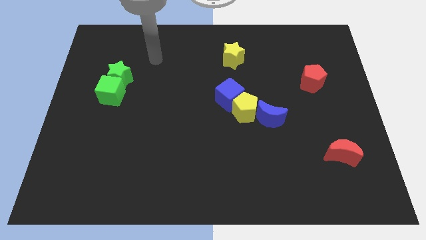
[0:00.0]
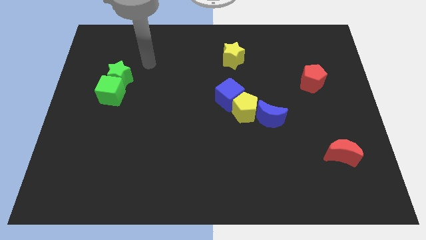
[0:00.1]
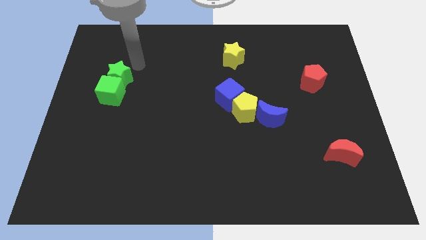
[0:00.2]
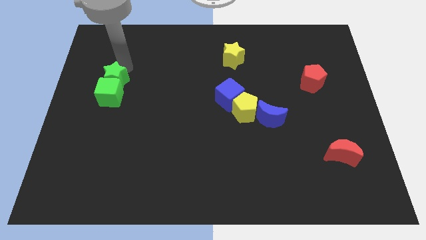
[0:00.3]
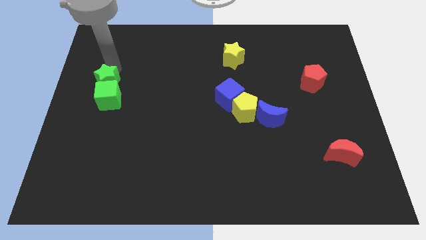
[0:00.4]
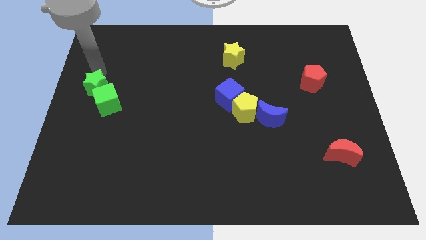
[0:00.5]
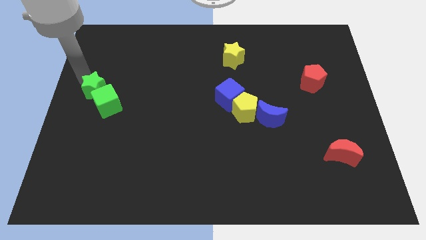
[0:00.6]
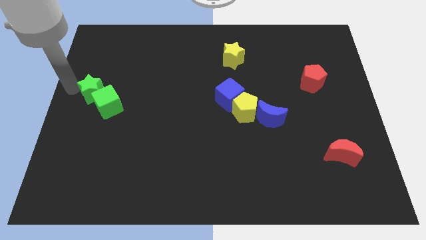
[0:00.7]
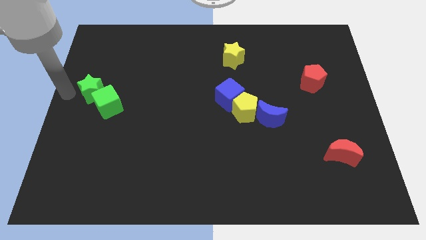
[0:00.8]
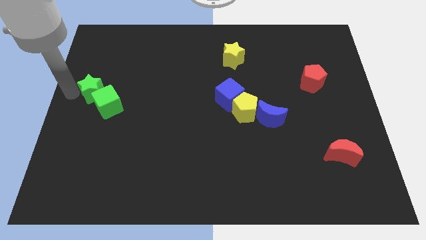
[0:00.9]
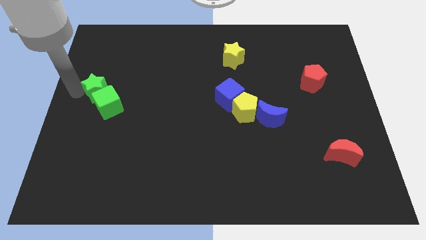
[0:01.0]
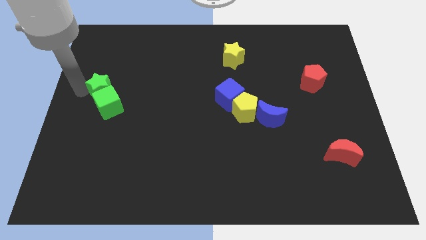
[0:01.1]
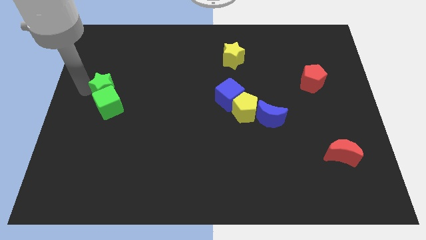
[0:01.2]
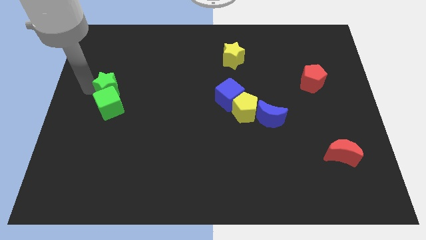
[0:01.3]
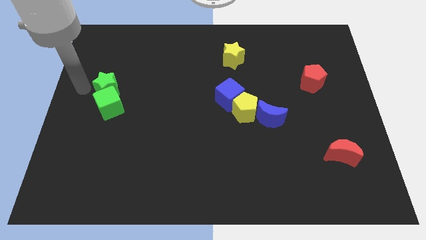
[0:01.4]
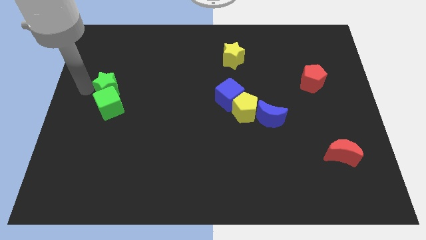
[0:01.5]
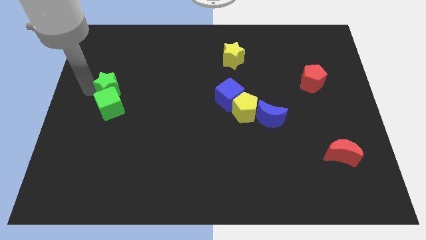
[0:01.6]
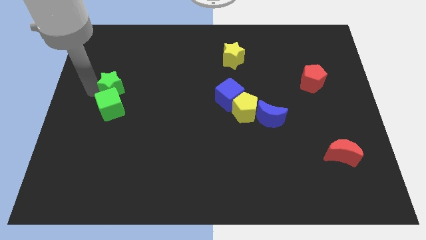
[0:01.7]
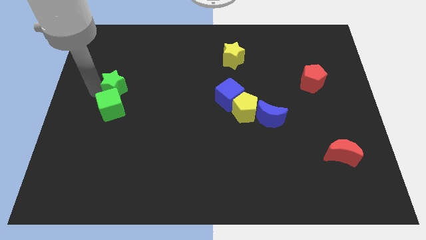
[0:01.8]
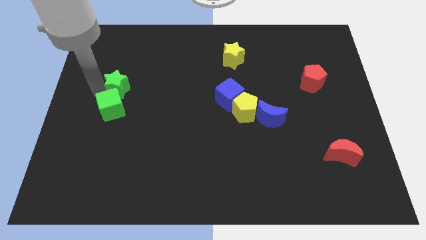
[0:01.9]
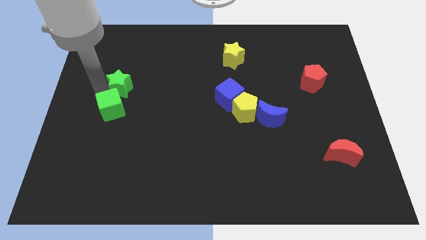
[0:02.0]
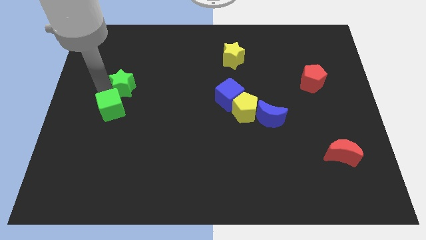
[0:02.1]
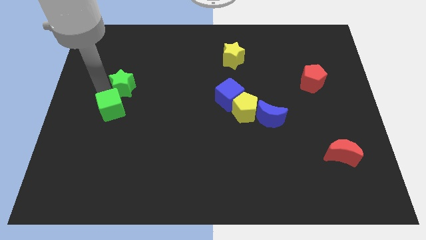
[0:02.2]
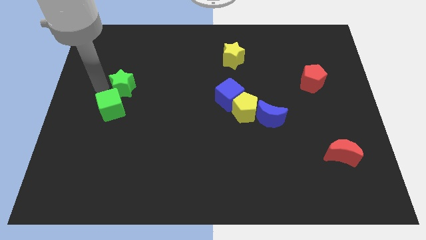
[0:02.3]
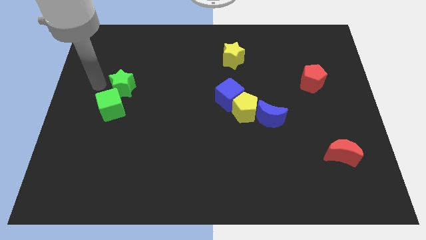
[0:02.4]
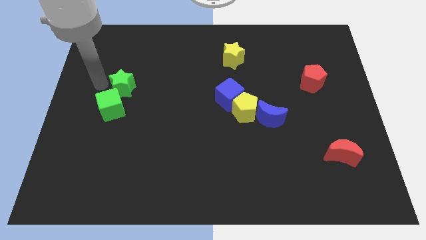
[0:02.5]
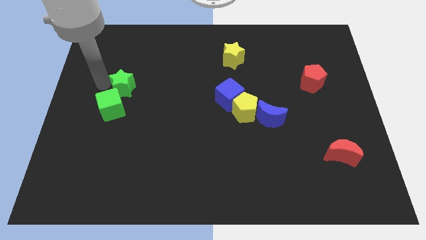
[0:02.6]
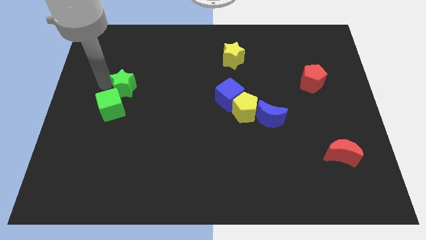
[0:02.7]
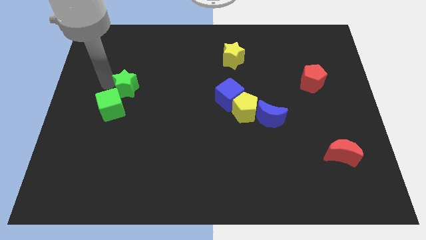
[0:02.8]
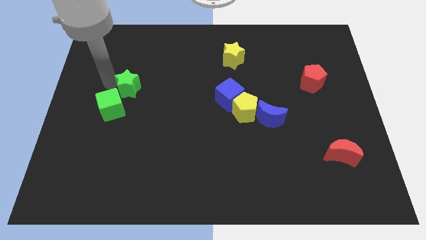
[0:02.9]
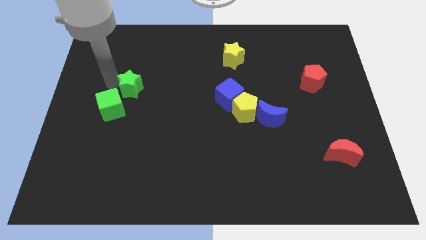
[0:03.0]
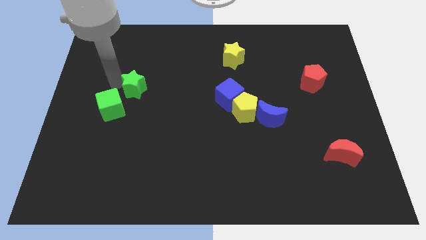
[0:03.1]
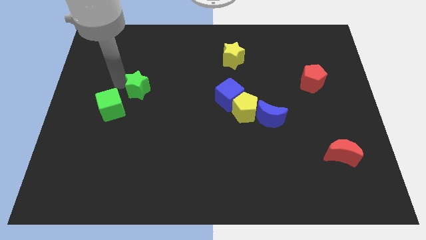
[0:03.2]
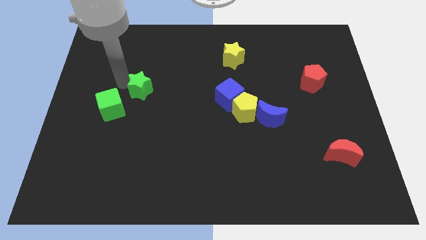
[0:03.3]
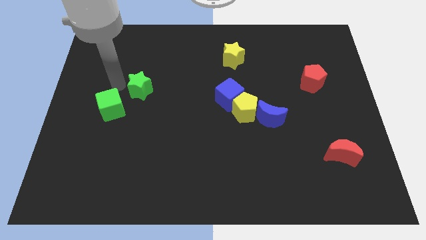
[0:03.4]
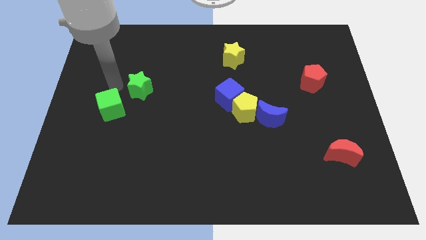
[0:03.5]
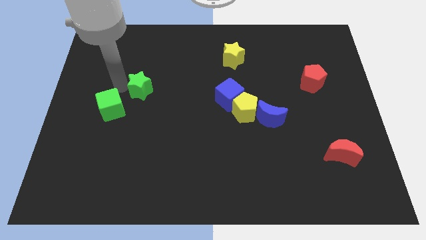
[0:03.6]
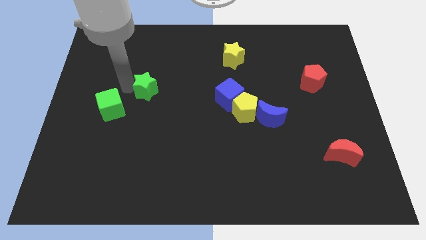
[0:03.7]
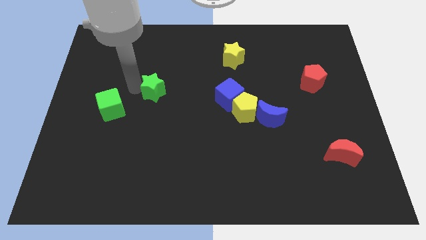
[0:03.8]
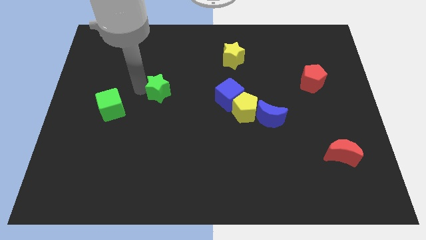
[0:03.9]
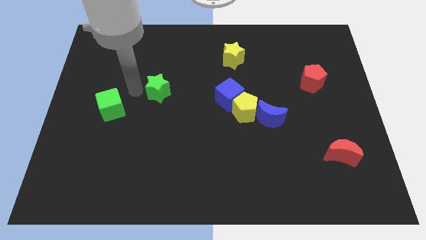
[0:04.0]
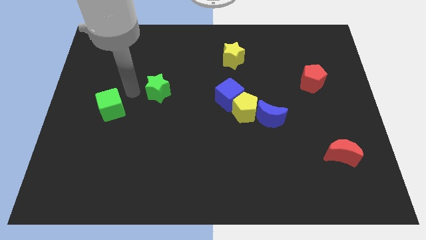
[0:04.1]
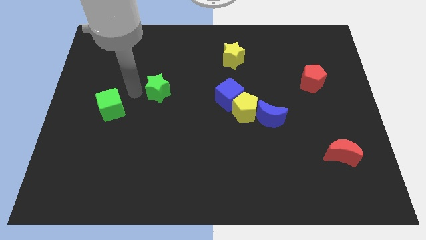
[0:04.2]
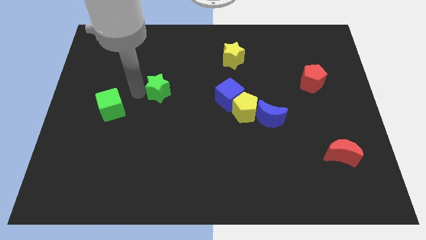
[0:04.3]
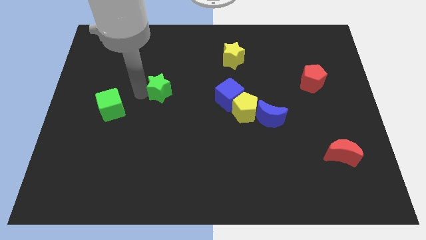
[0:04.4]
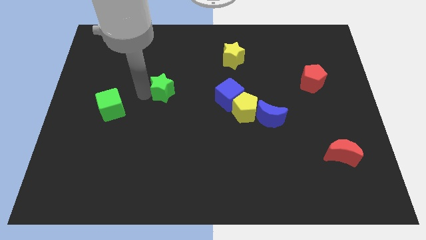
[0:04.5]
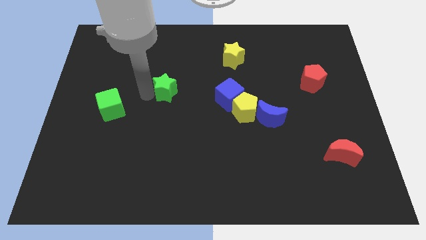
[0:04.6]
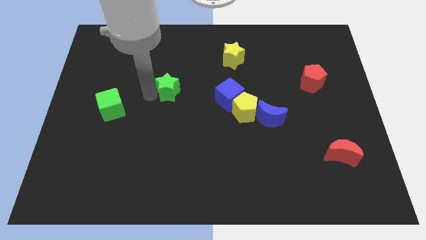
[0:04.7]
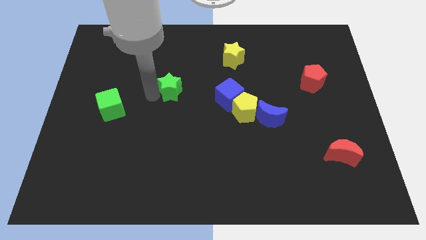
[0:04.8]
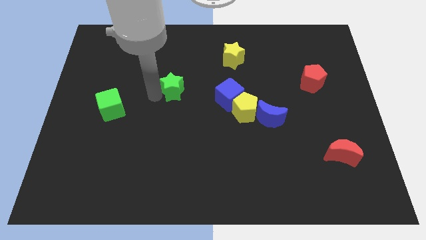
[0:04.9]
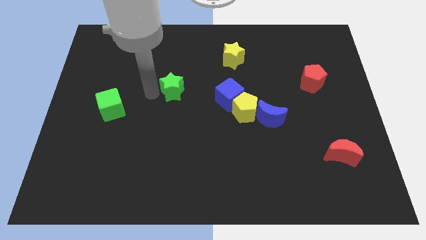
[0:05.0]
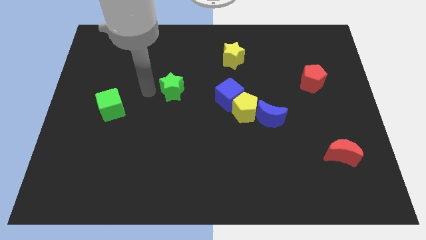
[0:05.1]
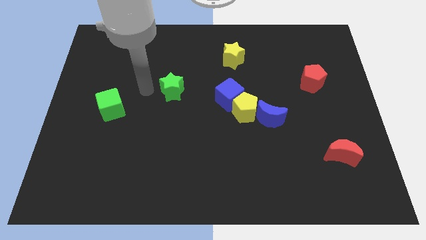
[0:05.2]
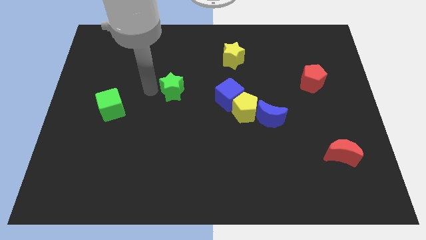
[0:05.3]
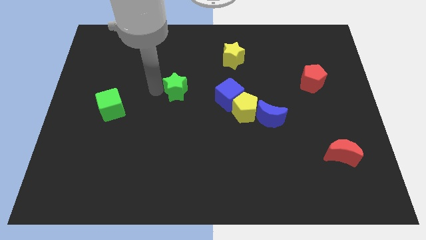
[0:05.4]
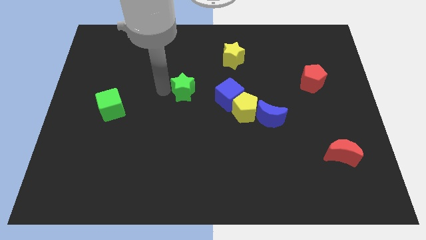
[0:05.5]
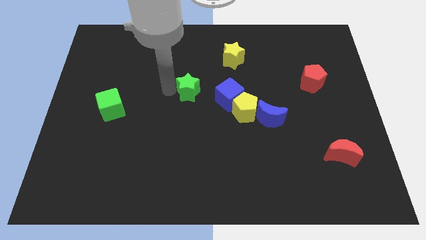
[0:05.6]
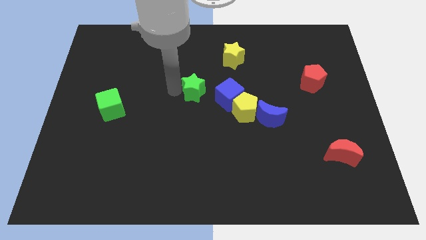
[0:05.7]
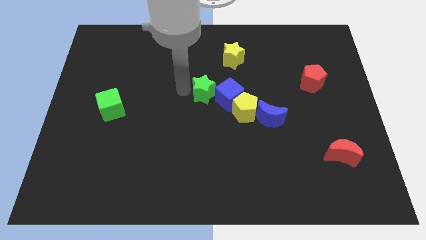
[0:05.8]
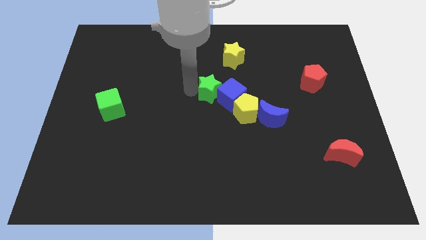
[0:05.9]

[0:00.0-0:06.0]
move the green star close to the blue cube

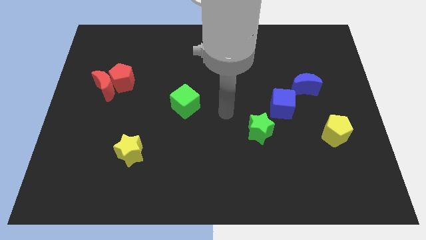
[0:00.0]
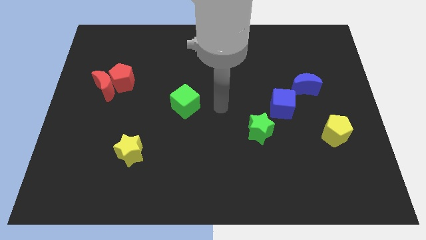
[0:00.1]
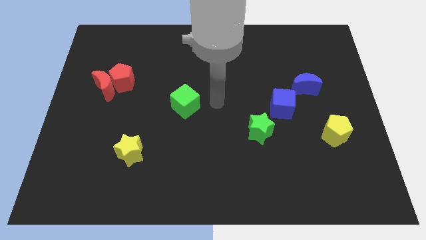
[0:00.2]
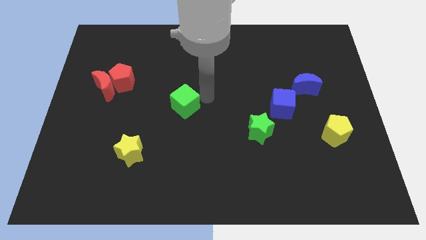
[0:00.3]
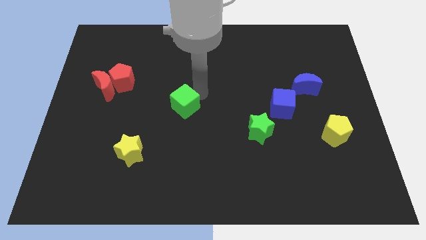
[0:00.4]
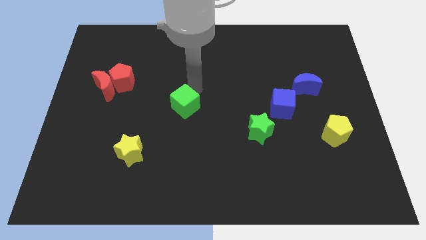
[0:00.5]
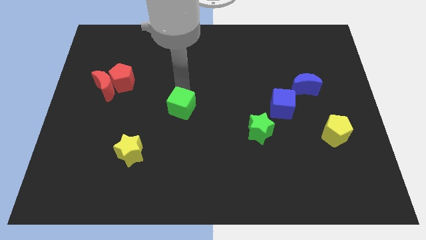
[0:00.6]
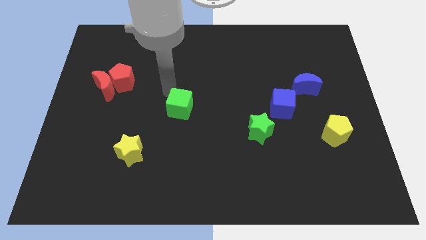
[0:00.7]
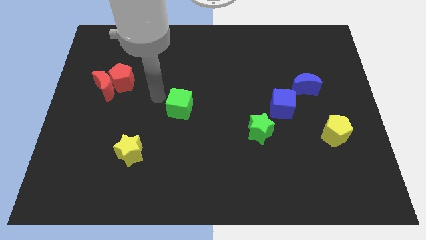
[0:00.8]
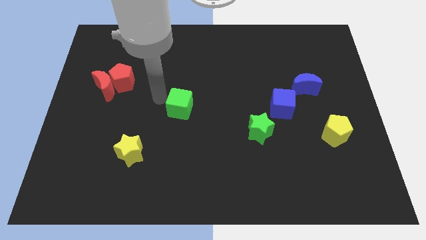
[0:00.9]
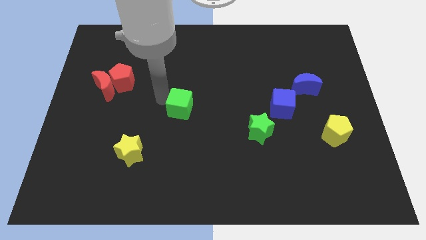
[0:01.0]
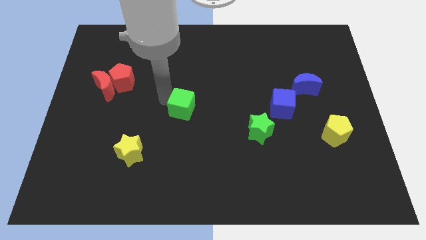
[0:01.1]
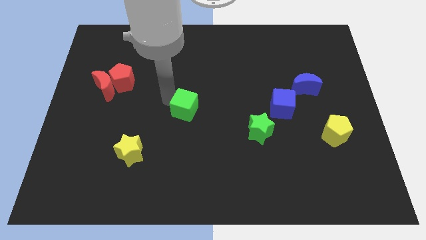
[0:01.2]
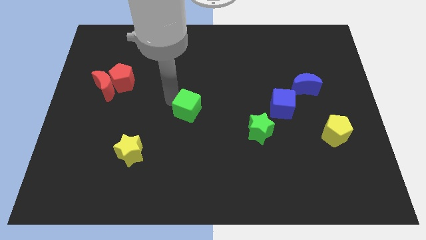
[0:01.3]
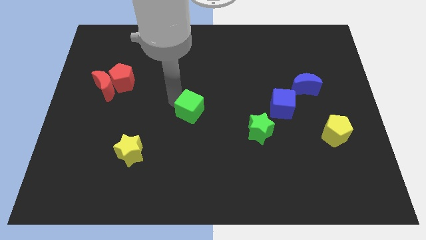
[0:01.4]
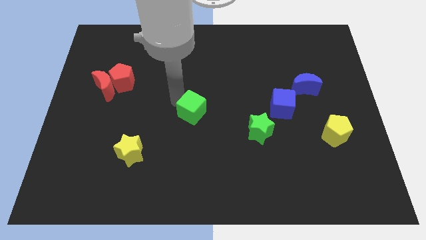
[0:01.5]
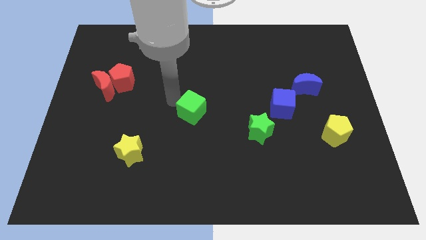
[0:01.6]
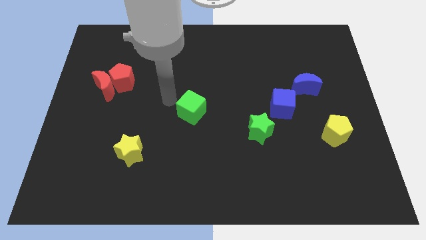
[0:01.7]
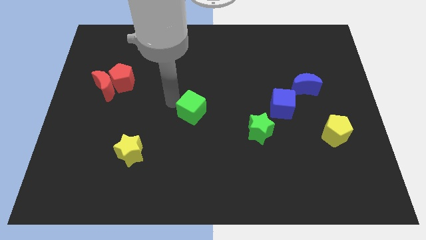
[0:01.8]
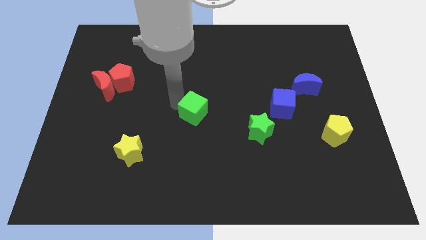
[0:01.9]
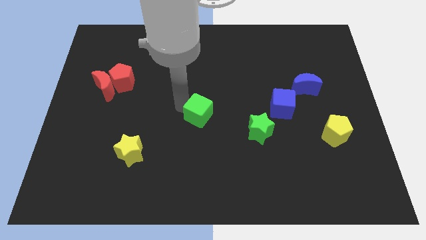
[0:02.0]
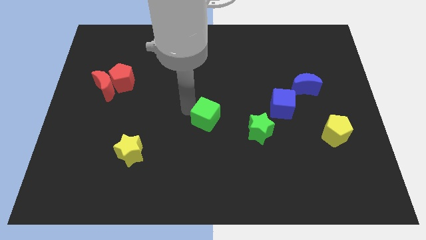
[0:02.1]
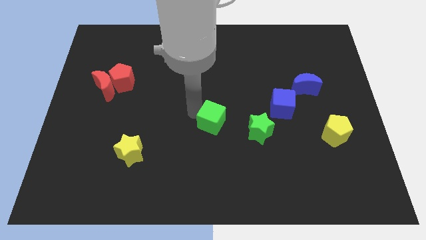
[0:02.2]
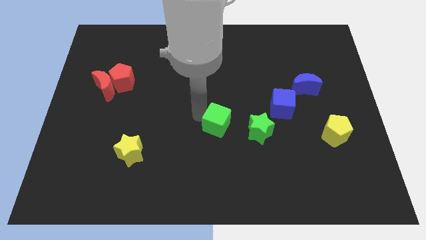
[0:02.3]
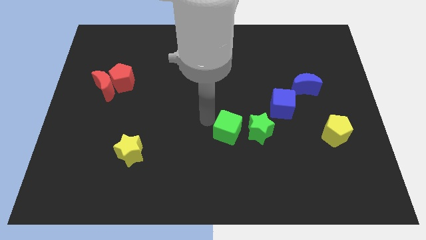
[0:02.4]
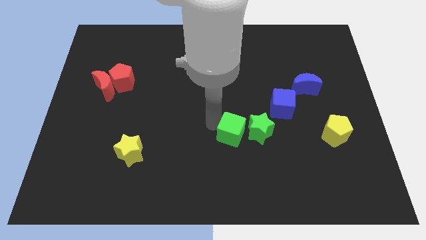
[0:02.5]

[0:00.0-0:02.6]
move the green cube close to the green star
